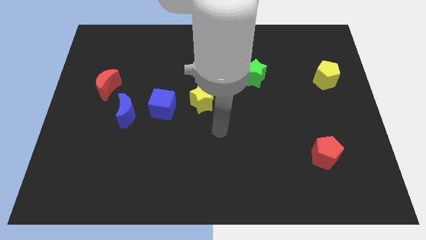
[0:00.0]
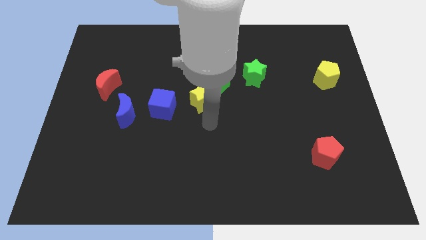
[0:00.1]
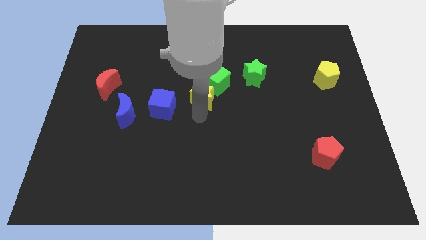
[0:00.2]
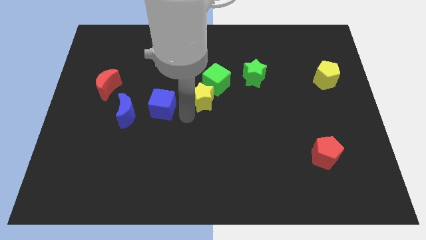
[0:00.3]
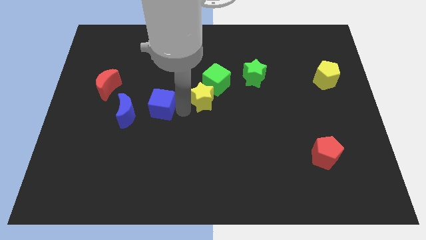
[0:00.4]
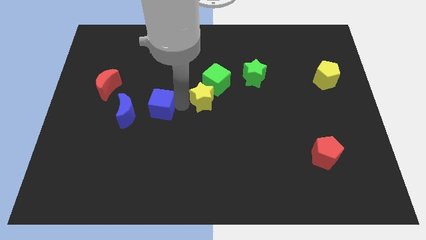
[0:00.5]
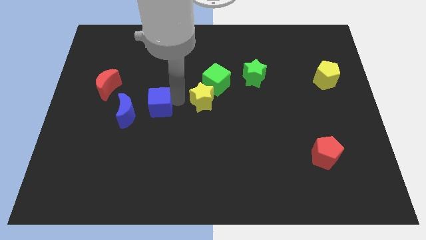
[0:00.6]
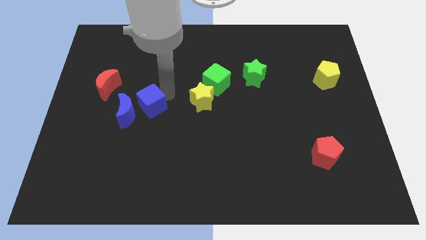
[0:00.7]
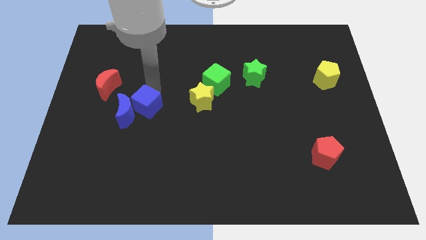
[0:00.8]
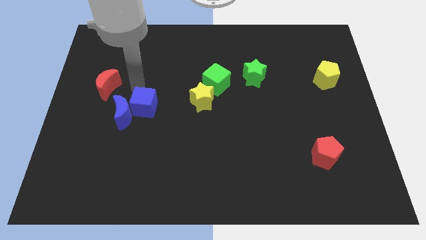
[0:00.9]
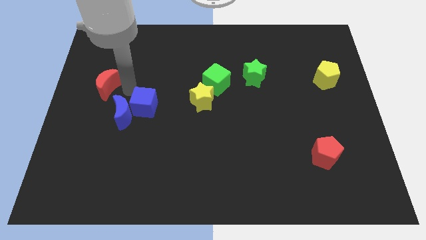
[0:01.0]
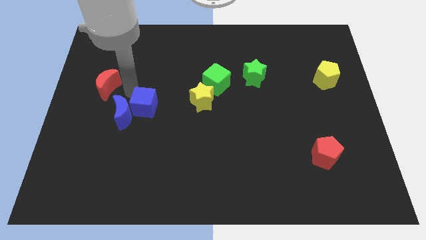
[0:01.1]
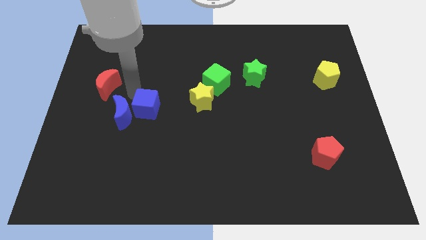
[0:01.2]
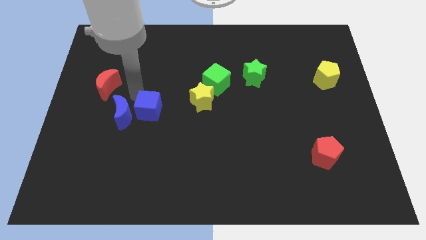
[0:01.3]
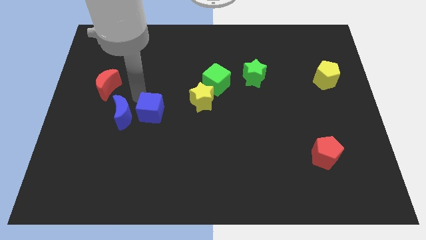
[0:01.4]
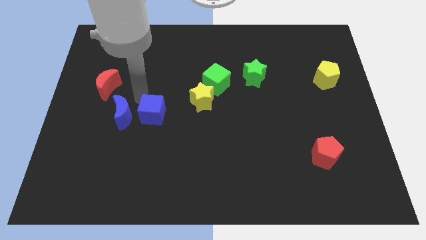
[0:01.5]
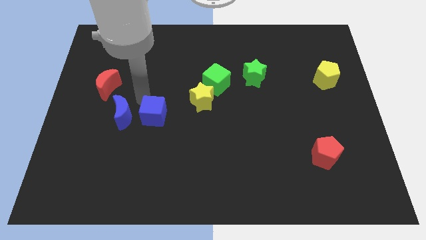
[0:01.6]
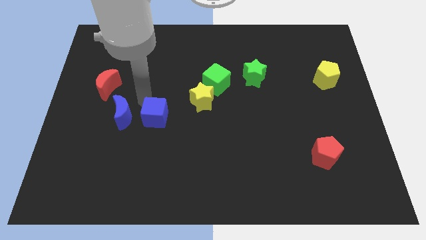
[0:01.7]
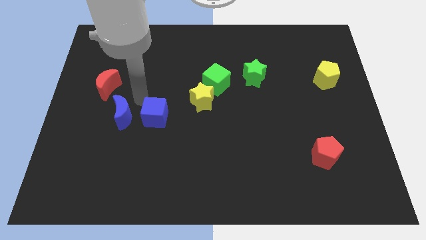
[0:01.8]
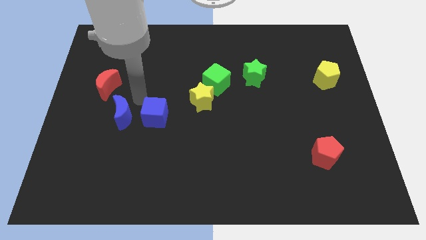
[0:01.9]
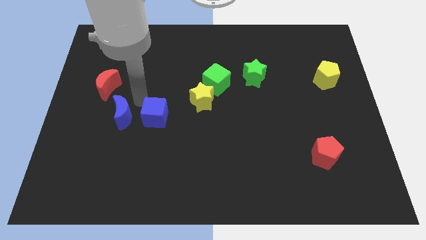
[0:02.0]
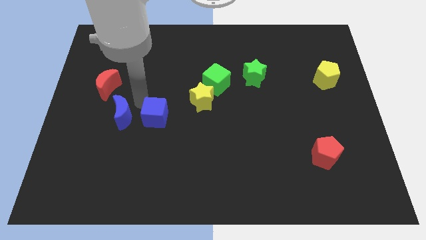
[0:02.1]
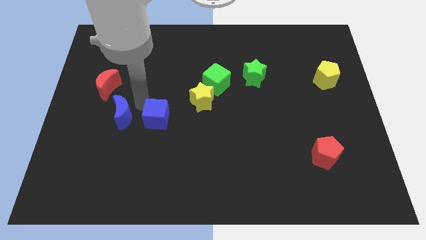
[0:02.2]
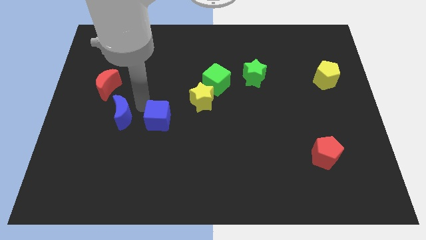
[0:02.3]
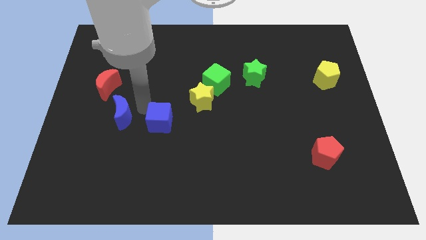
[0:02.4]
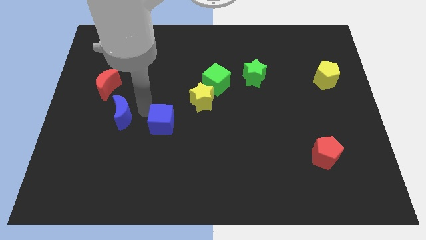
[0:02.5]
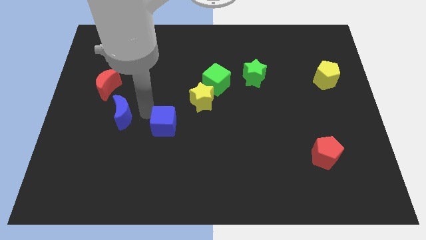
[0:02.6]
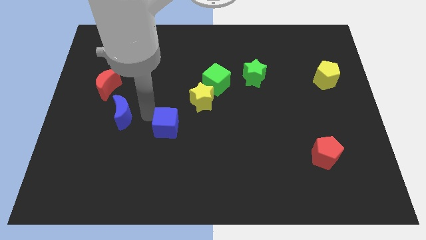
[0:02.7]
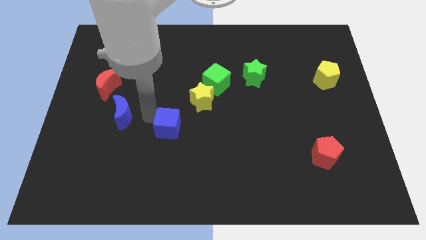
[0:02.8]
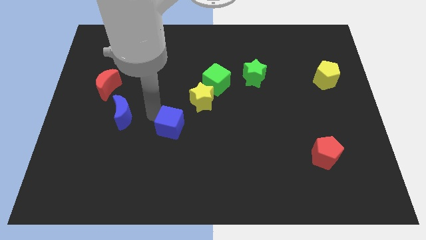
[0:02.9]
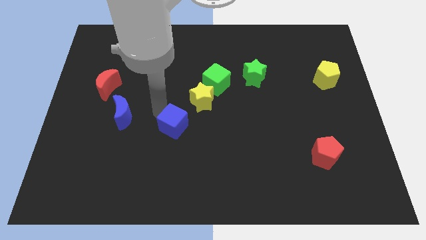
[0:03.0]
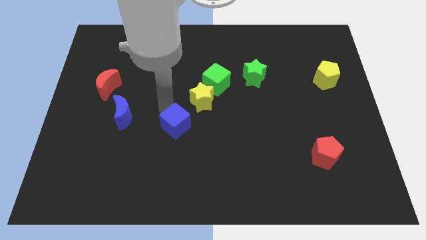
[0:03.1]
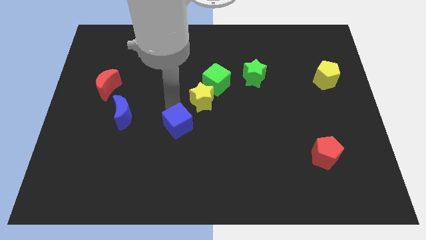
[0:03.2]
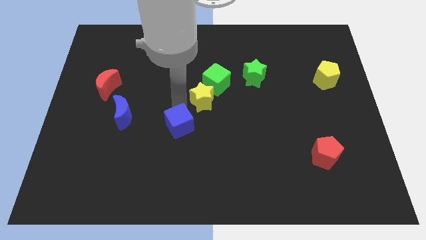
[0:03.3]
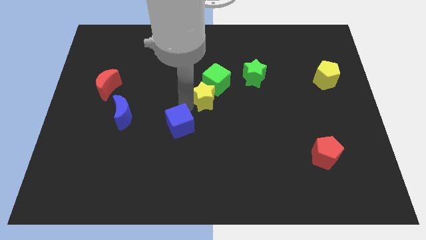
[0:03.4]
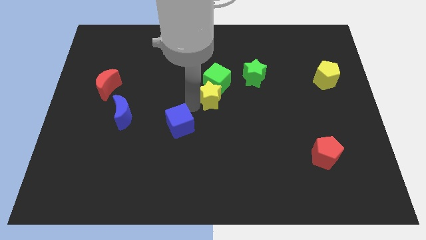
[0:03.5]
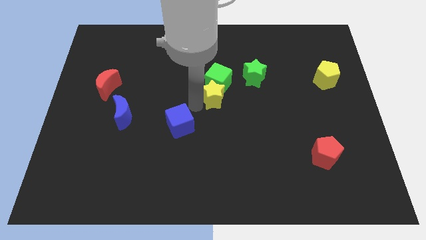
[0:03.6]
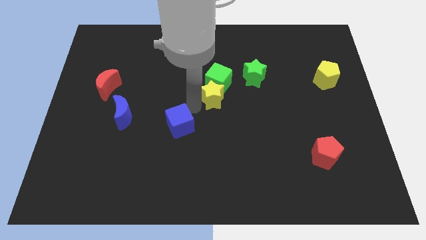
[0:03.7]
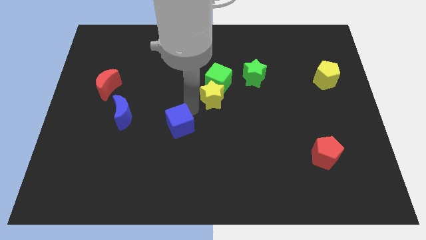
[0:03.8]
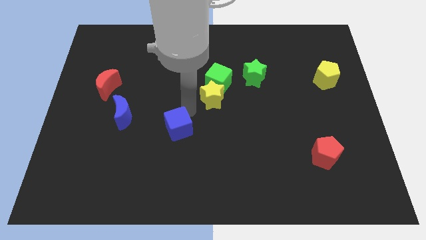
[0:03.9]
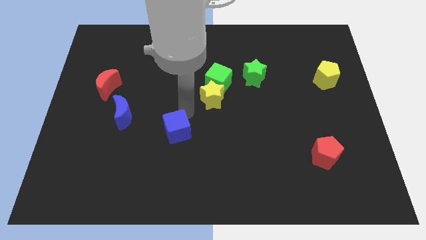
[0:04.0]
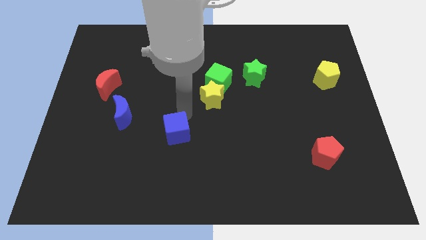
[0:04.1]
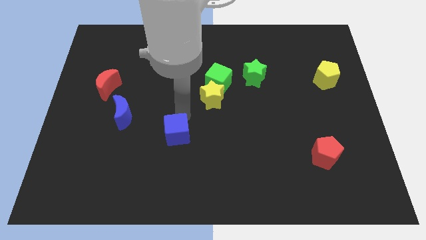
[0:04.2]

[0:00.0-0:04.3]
slightly push the blue cube downwards

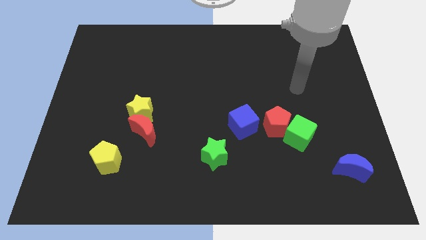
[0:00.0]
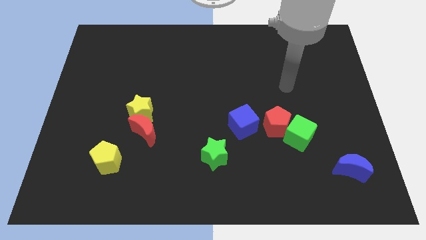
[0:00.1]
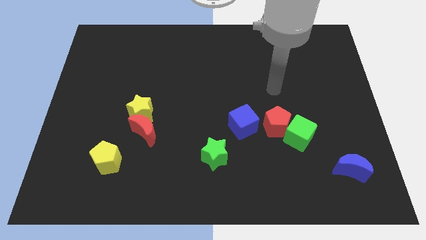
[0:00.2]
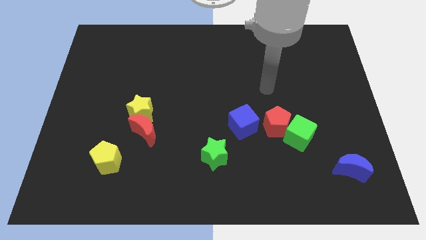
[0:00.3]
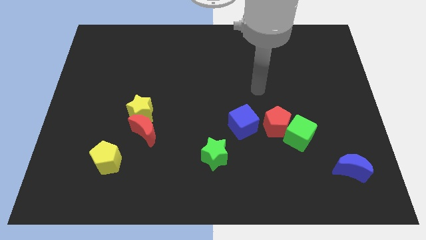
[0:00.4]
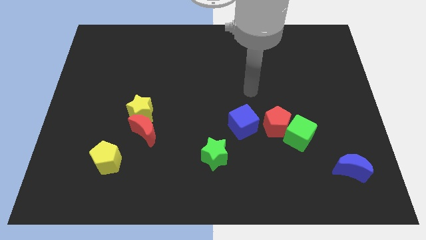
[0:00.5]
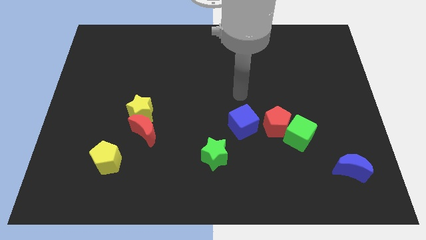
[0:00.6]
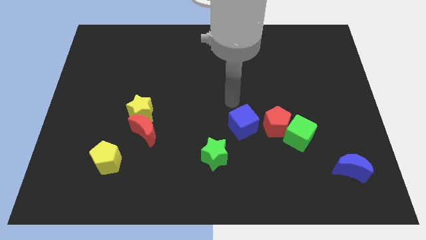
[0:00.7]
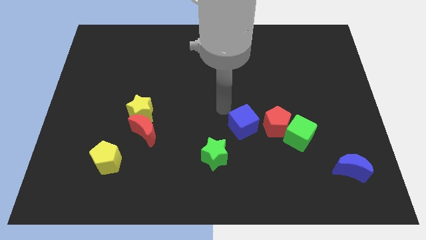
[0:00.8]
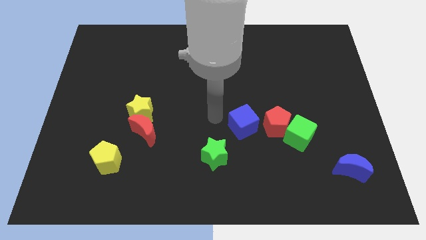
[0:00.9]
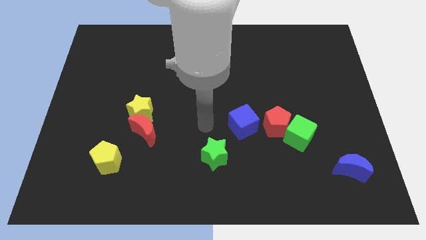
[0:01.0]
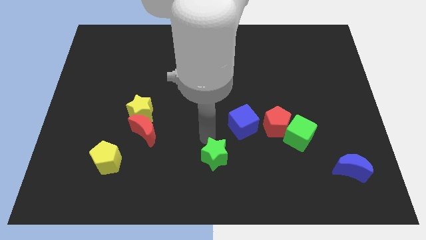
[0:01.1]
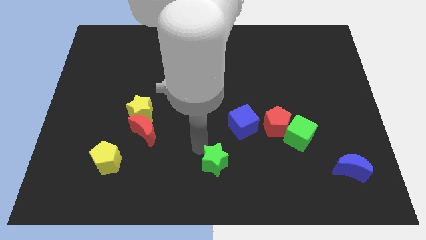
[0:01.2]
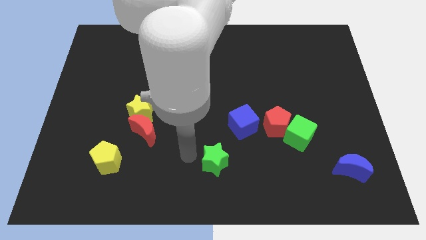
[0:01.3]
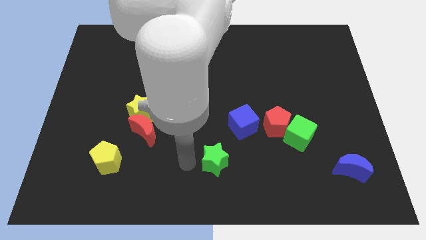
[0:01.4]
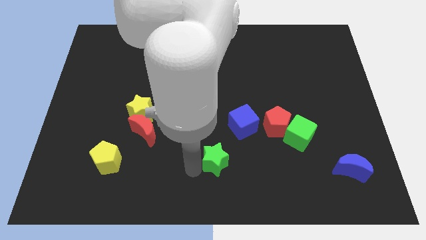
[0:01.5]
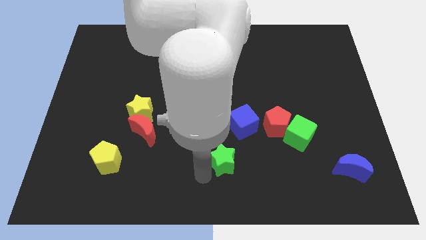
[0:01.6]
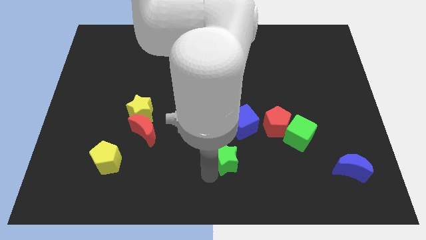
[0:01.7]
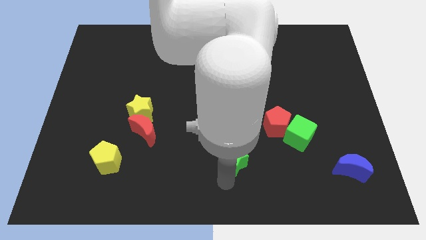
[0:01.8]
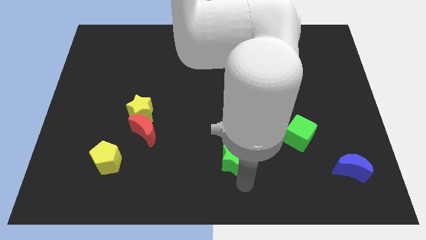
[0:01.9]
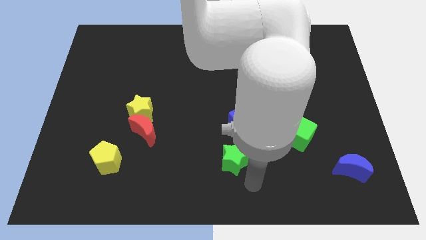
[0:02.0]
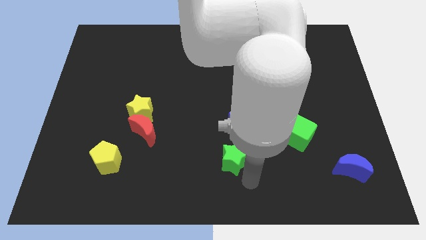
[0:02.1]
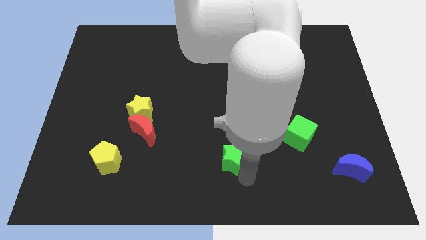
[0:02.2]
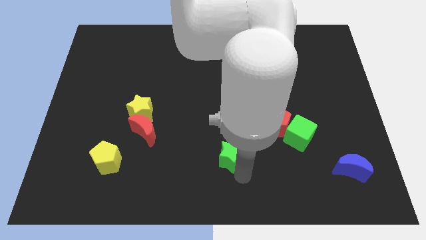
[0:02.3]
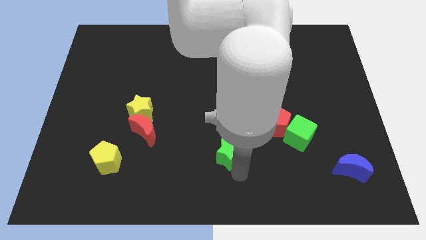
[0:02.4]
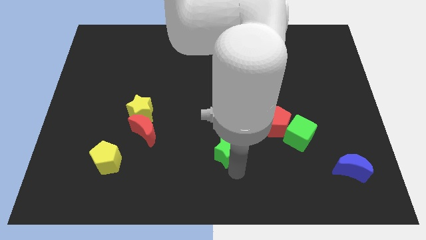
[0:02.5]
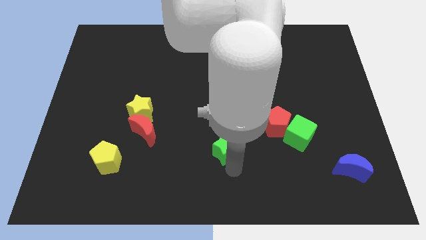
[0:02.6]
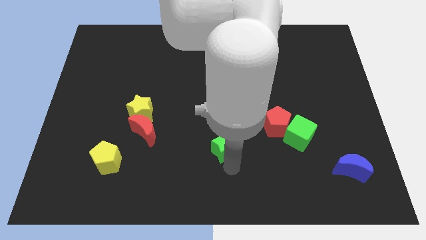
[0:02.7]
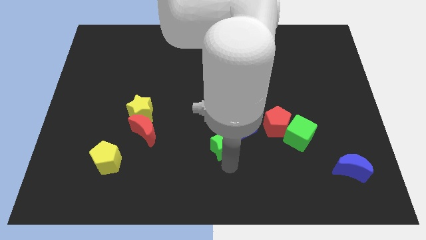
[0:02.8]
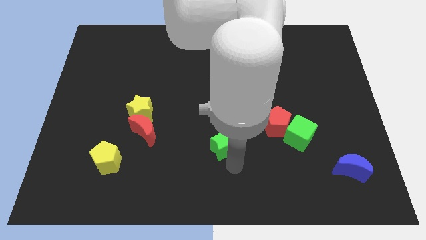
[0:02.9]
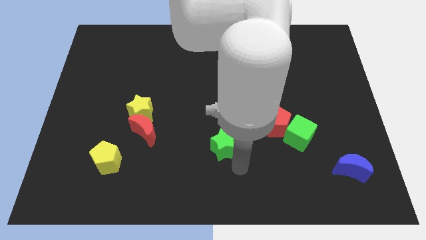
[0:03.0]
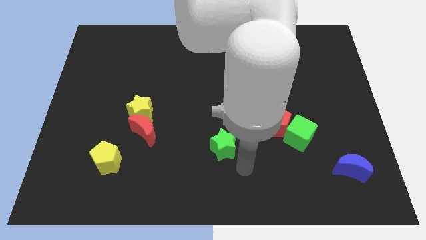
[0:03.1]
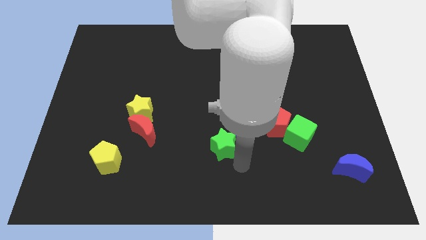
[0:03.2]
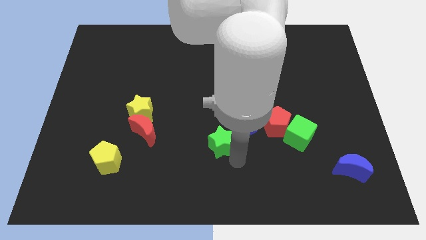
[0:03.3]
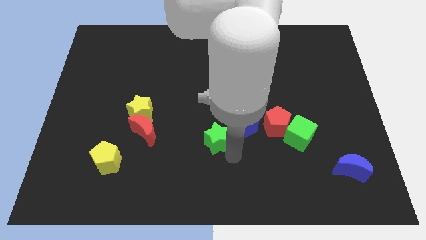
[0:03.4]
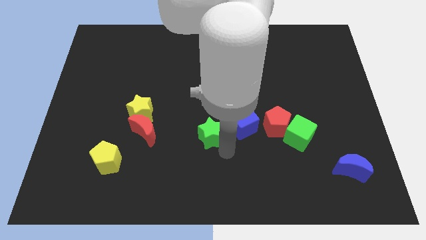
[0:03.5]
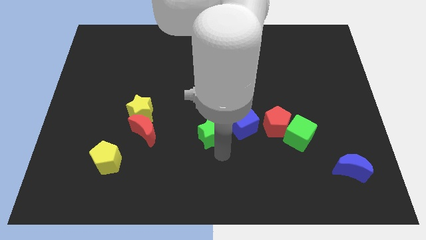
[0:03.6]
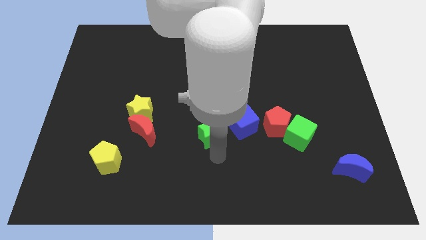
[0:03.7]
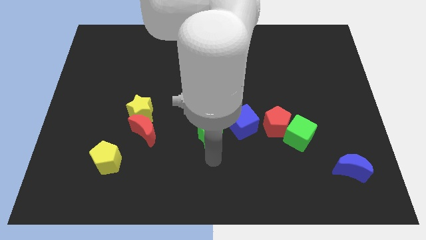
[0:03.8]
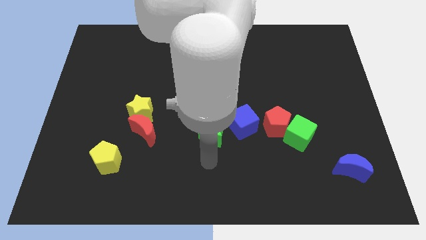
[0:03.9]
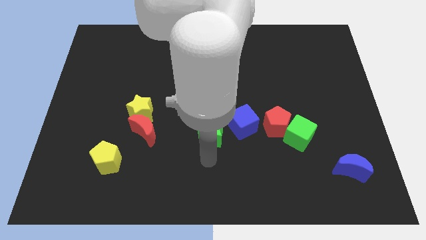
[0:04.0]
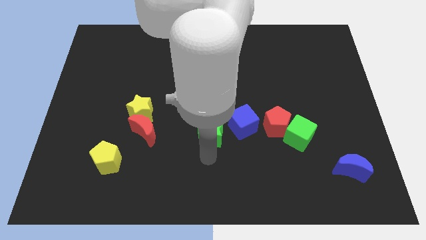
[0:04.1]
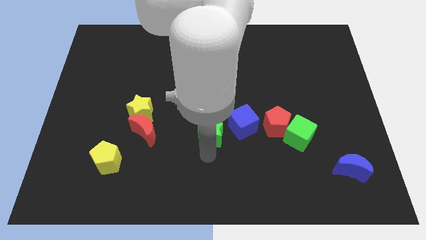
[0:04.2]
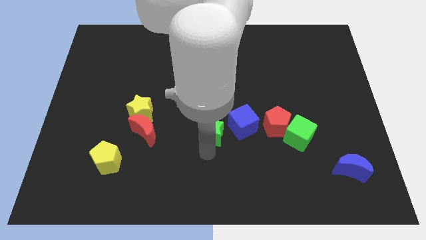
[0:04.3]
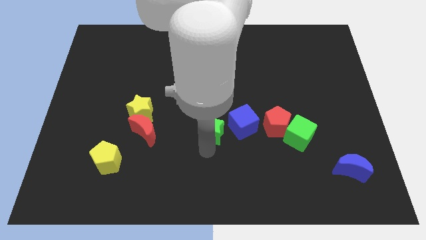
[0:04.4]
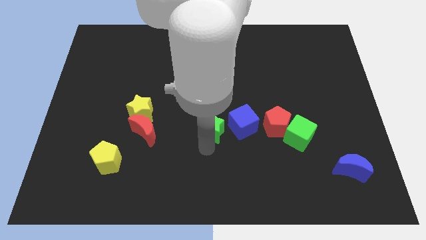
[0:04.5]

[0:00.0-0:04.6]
slightly push the green star up
